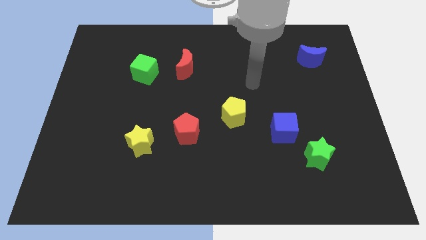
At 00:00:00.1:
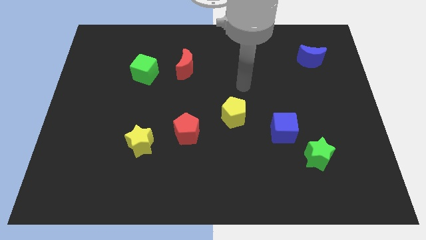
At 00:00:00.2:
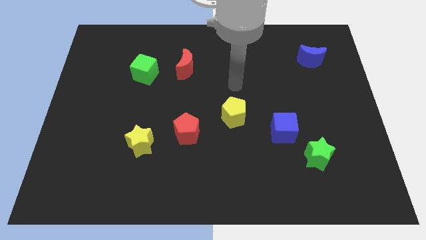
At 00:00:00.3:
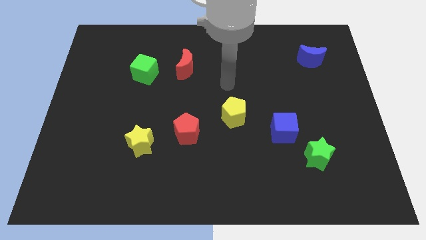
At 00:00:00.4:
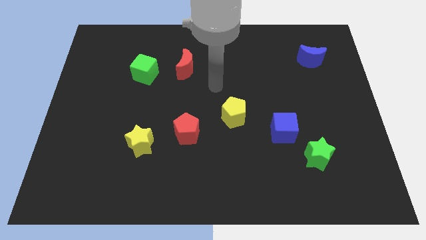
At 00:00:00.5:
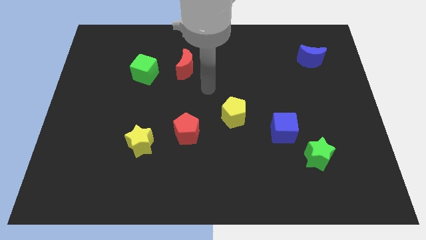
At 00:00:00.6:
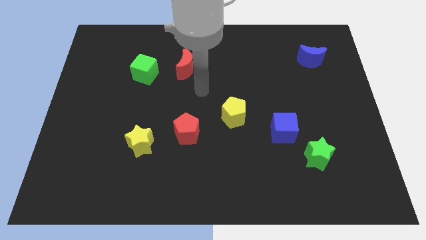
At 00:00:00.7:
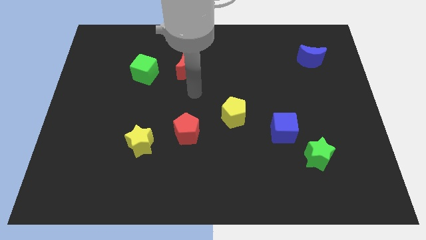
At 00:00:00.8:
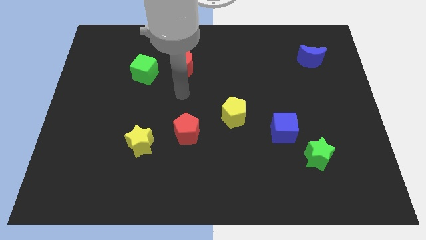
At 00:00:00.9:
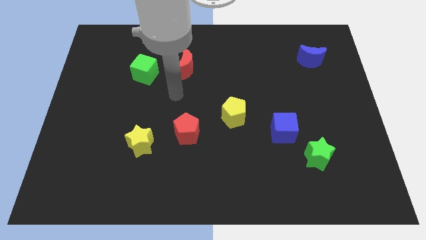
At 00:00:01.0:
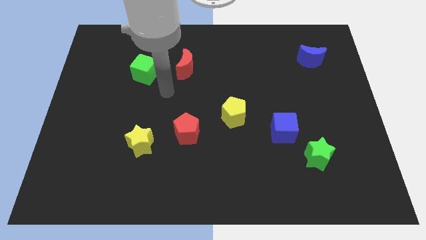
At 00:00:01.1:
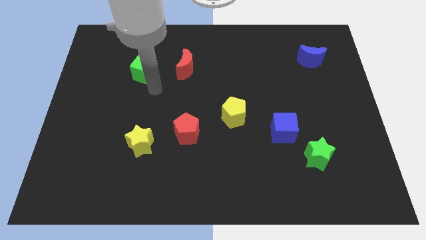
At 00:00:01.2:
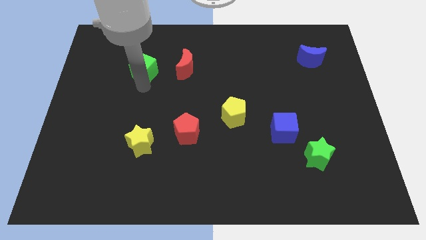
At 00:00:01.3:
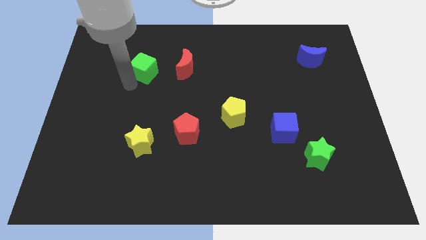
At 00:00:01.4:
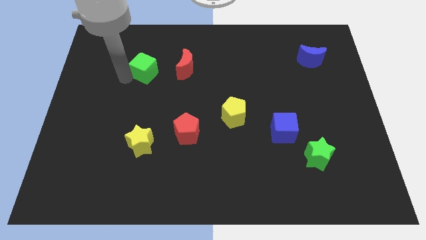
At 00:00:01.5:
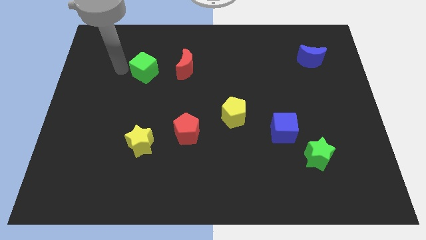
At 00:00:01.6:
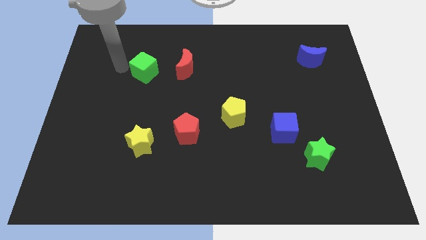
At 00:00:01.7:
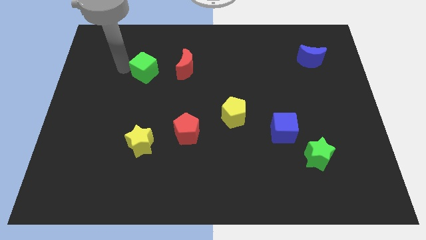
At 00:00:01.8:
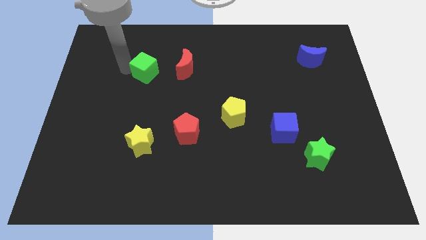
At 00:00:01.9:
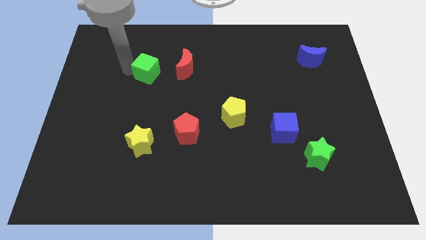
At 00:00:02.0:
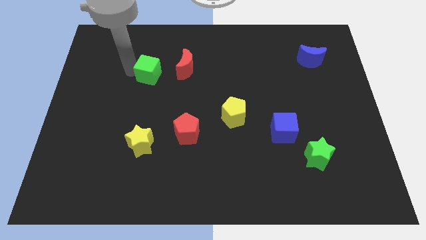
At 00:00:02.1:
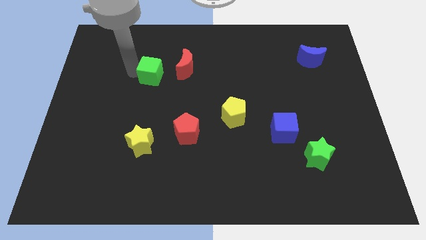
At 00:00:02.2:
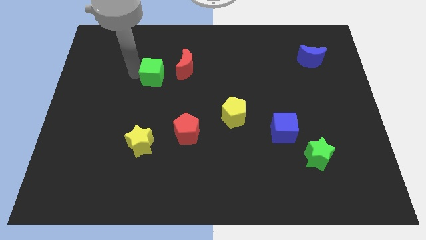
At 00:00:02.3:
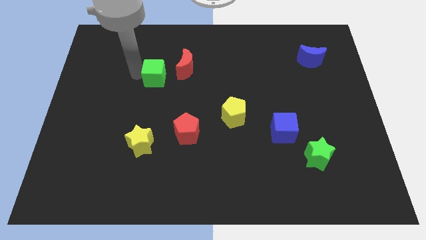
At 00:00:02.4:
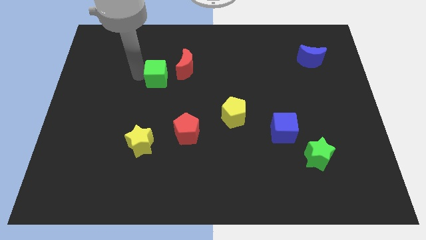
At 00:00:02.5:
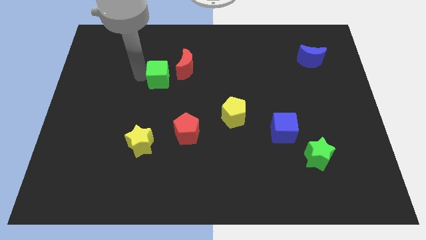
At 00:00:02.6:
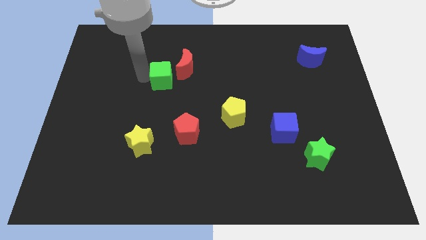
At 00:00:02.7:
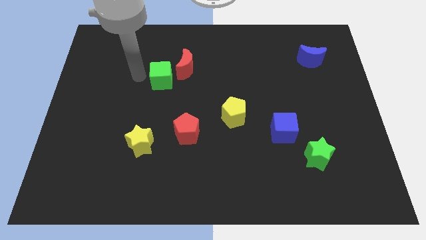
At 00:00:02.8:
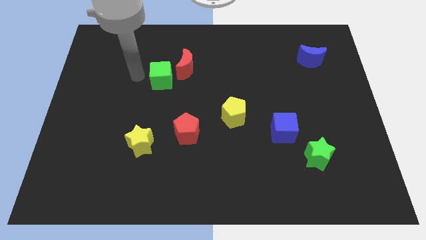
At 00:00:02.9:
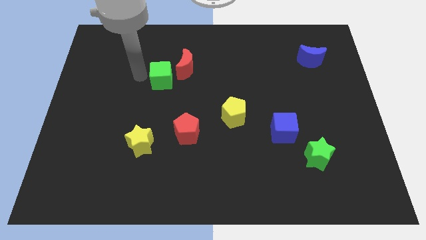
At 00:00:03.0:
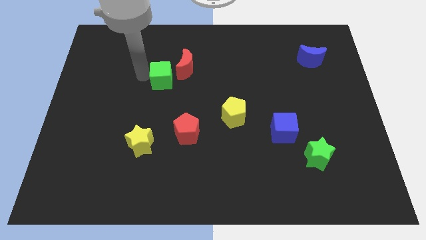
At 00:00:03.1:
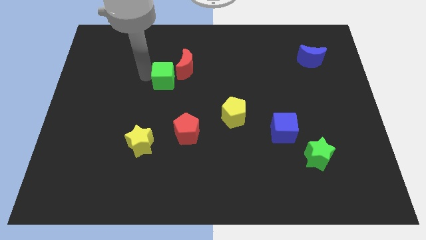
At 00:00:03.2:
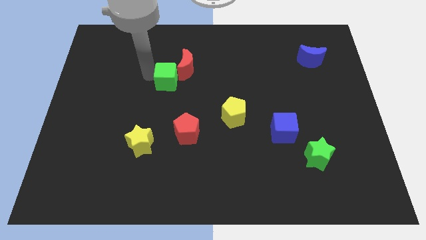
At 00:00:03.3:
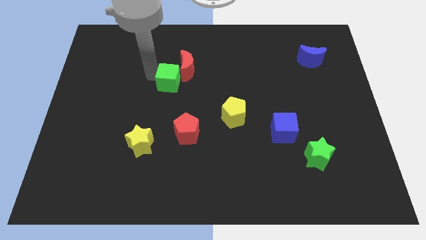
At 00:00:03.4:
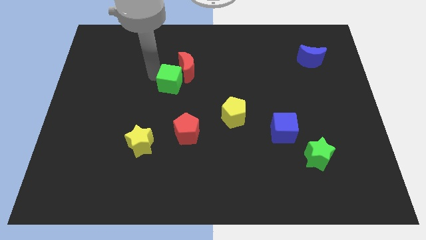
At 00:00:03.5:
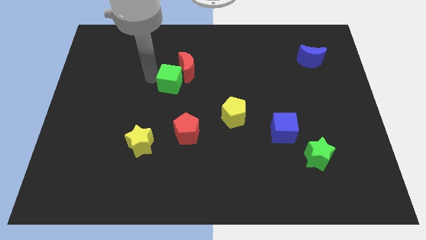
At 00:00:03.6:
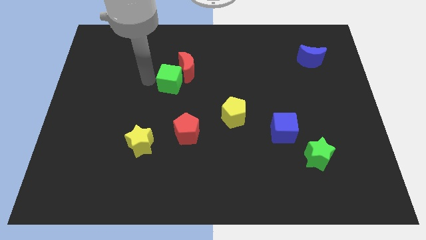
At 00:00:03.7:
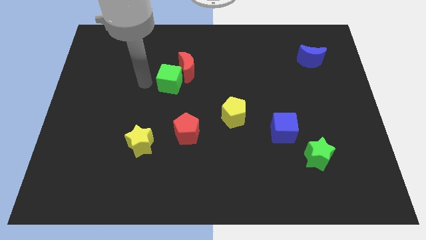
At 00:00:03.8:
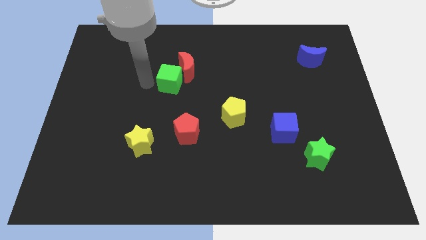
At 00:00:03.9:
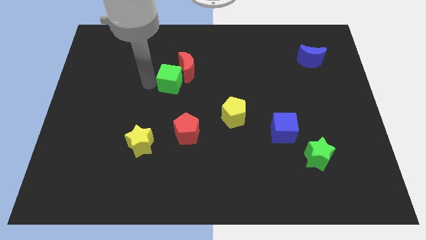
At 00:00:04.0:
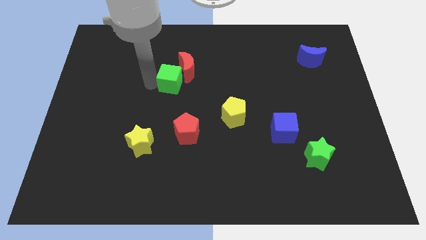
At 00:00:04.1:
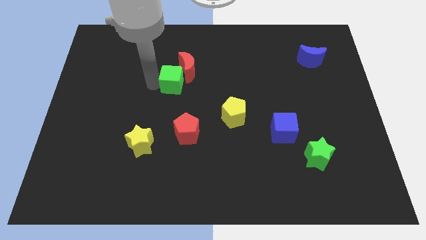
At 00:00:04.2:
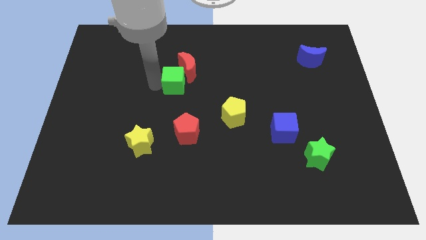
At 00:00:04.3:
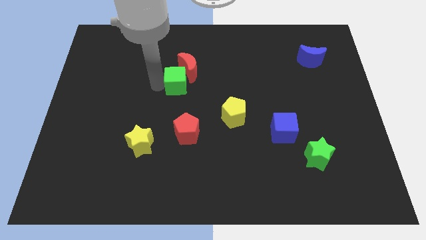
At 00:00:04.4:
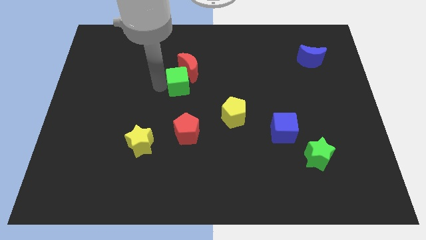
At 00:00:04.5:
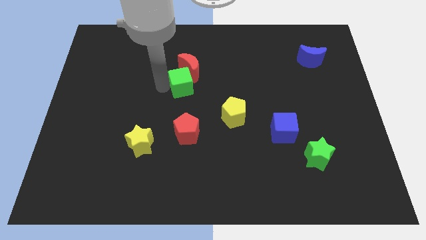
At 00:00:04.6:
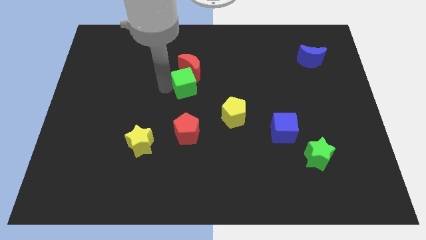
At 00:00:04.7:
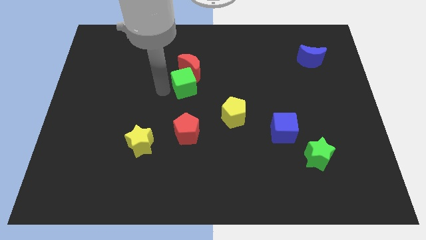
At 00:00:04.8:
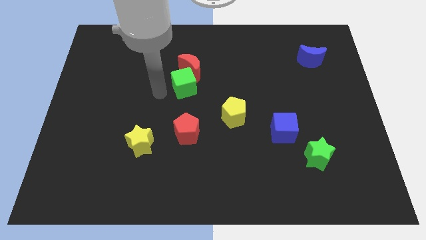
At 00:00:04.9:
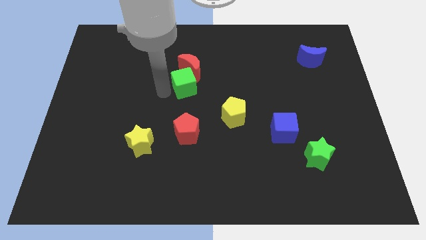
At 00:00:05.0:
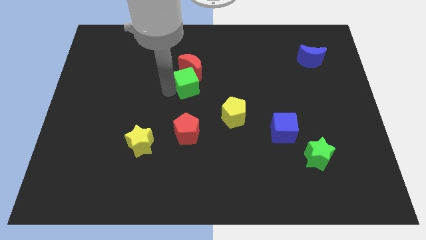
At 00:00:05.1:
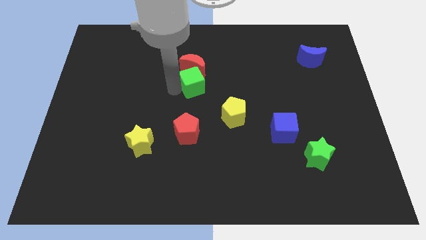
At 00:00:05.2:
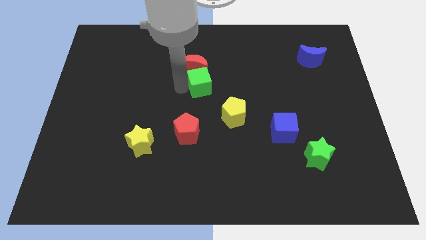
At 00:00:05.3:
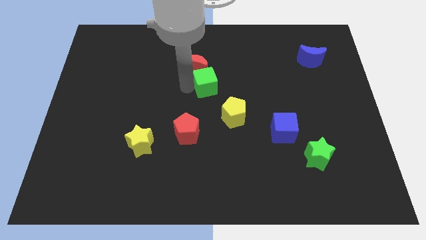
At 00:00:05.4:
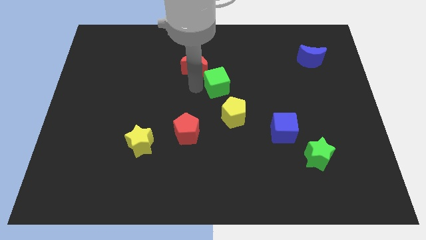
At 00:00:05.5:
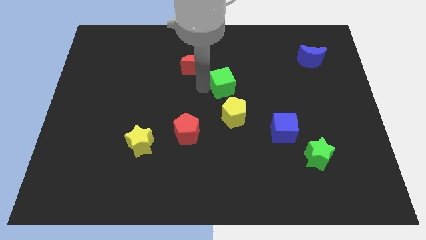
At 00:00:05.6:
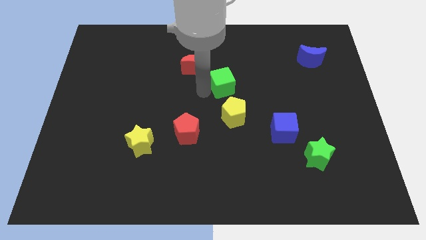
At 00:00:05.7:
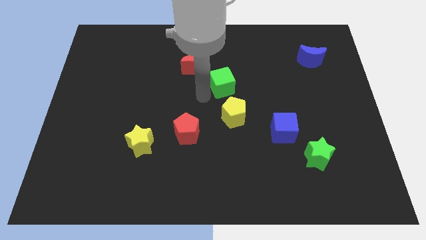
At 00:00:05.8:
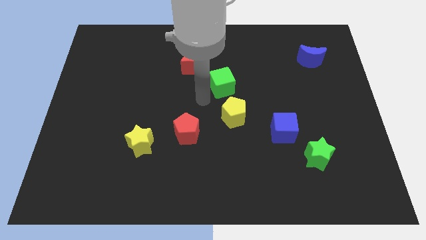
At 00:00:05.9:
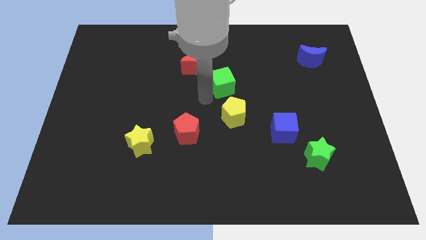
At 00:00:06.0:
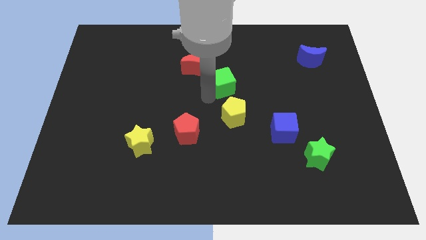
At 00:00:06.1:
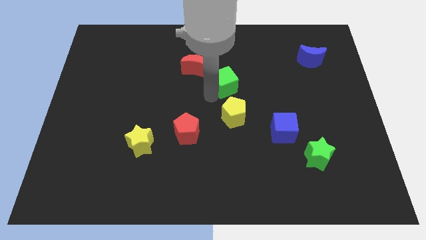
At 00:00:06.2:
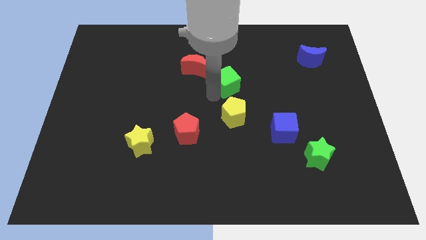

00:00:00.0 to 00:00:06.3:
slide the green cube right

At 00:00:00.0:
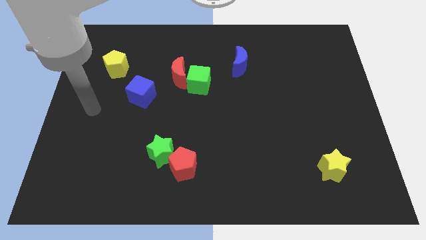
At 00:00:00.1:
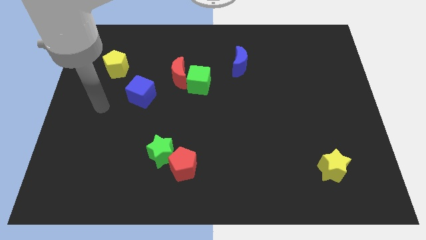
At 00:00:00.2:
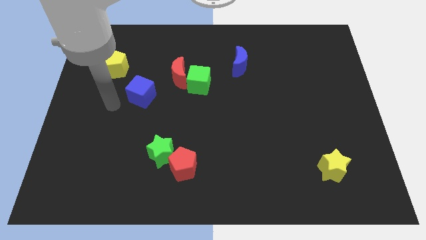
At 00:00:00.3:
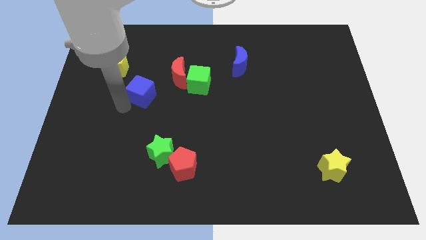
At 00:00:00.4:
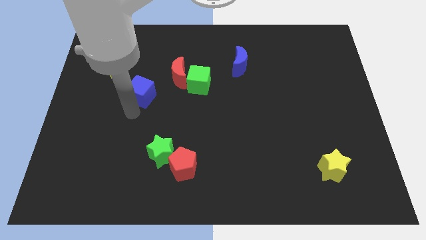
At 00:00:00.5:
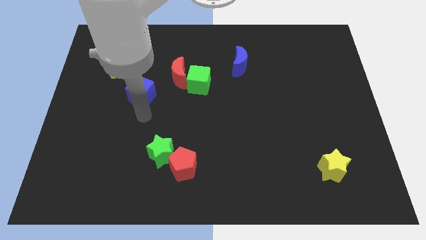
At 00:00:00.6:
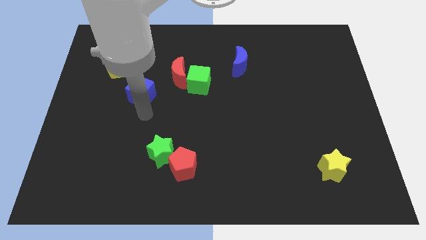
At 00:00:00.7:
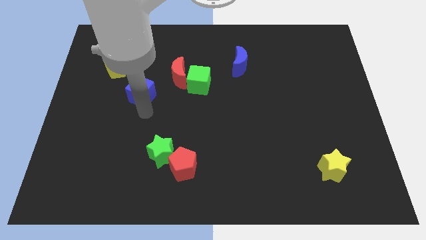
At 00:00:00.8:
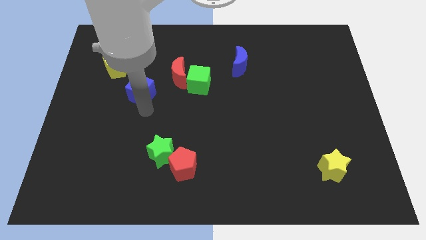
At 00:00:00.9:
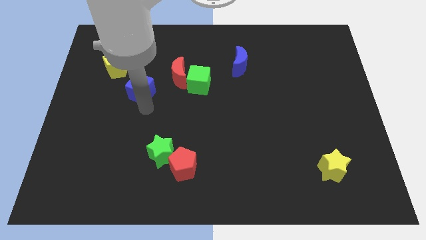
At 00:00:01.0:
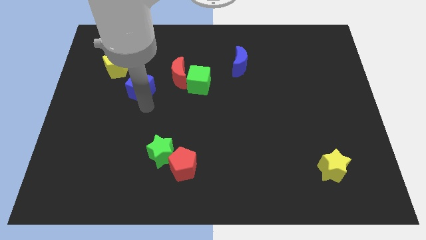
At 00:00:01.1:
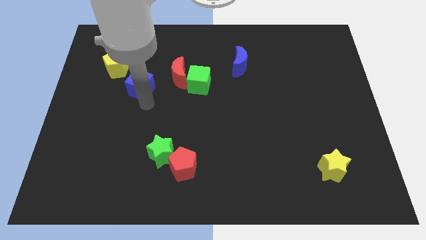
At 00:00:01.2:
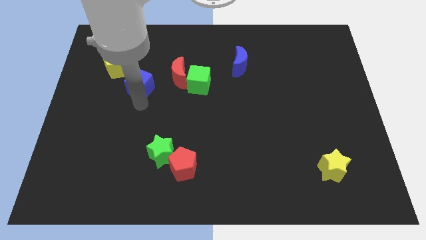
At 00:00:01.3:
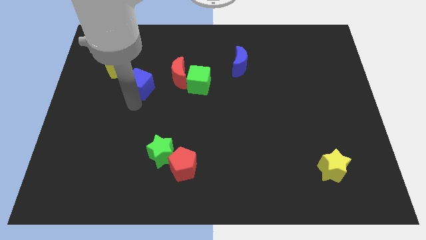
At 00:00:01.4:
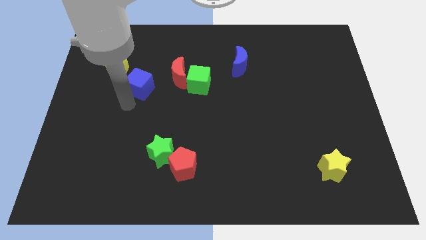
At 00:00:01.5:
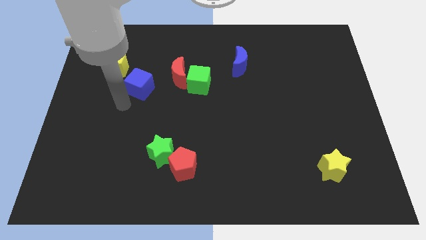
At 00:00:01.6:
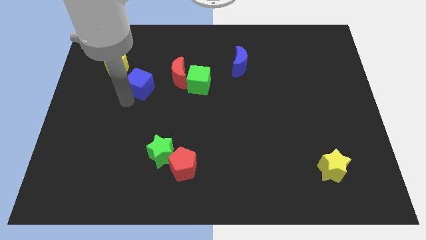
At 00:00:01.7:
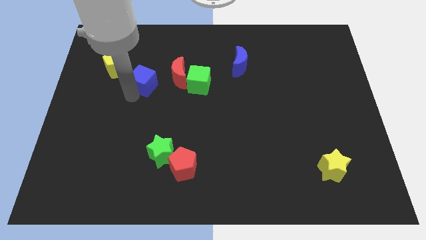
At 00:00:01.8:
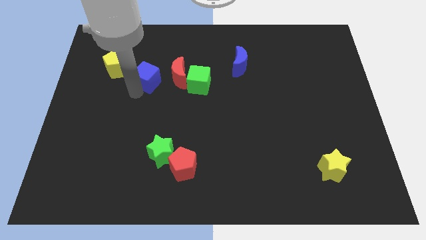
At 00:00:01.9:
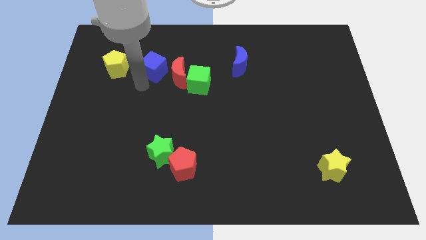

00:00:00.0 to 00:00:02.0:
slightly slide the blue cube up and then to the right
